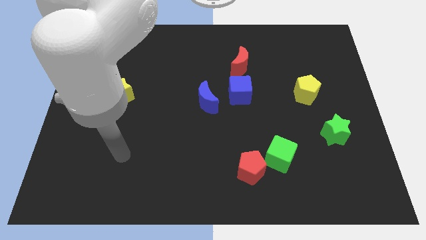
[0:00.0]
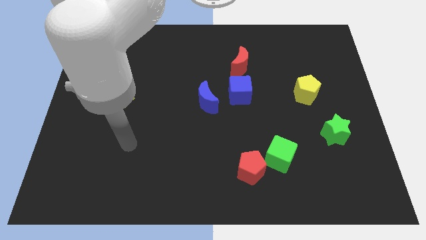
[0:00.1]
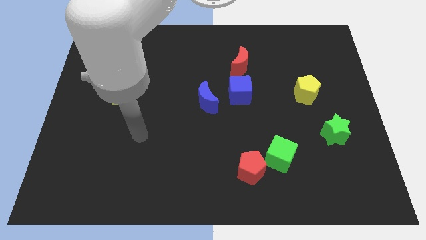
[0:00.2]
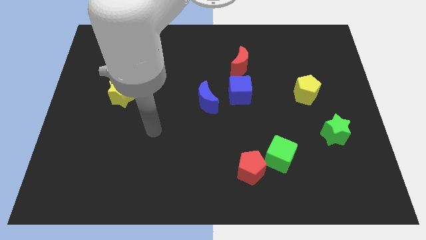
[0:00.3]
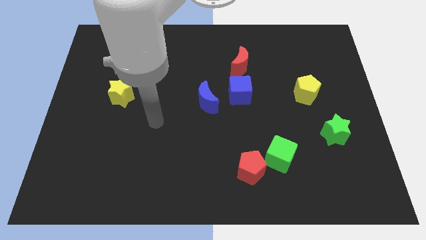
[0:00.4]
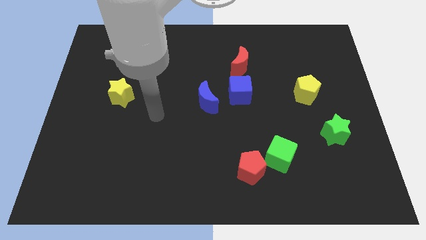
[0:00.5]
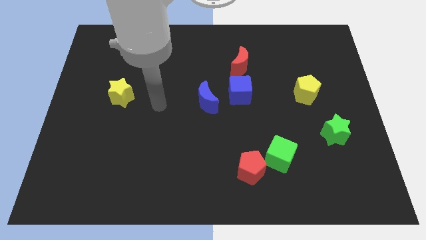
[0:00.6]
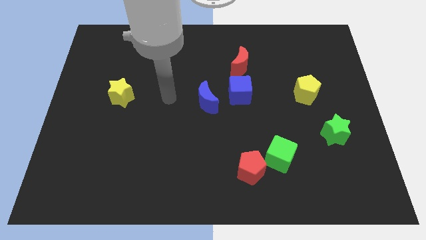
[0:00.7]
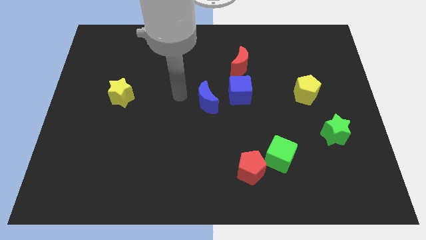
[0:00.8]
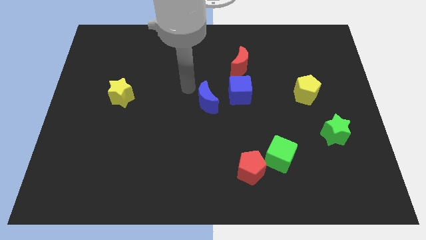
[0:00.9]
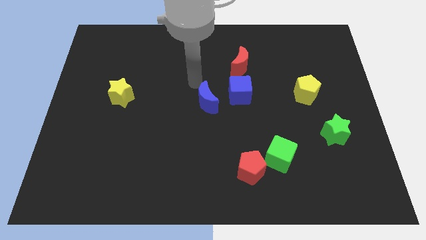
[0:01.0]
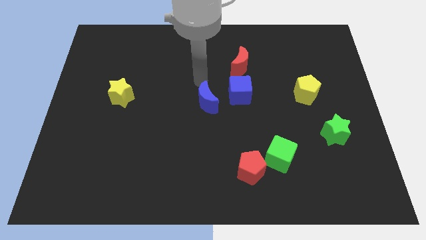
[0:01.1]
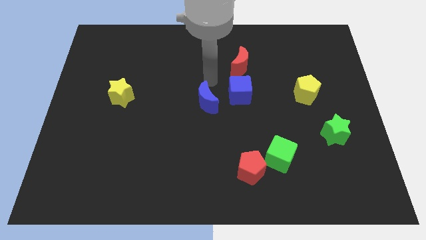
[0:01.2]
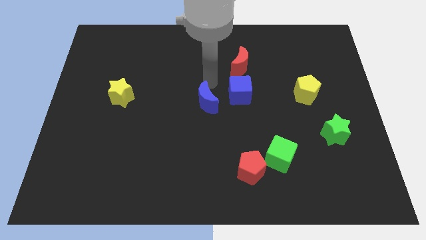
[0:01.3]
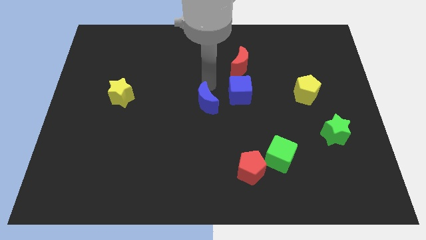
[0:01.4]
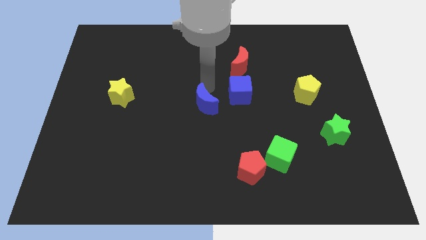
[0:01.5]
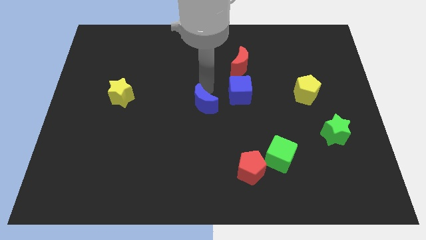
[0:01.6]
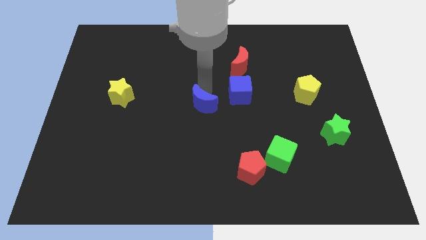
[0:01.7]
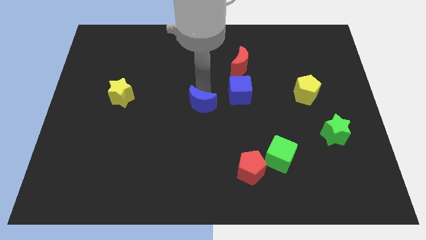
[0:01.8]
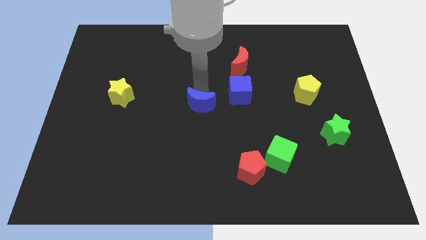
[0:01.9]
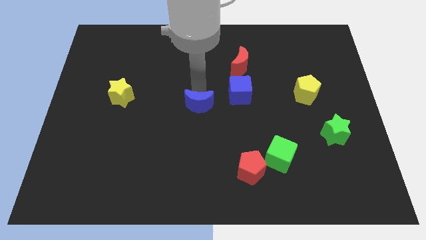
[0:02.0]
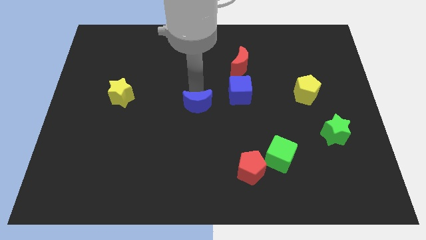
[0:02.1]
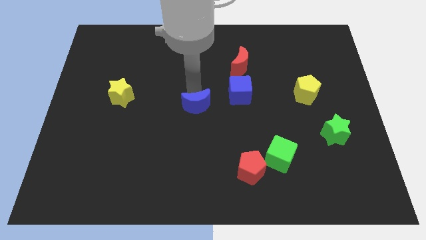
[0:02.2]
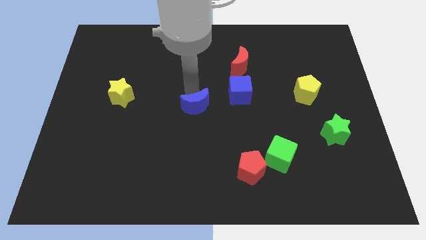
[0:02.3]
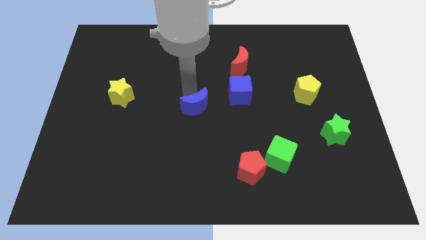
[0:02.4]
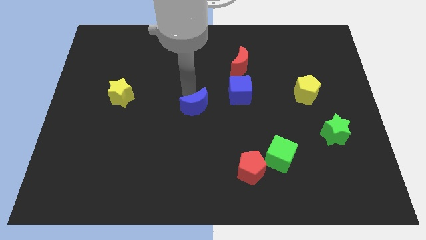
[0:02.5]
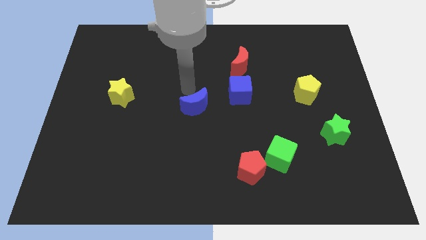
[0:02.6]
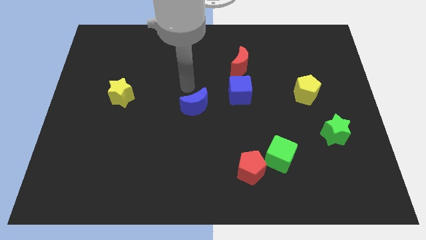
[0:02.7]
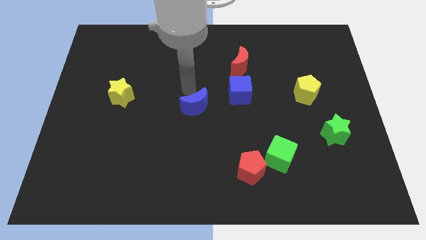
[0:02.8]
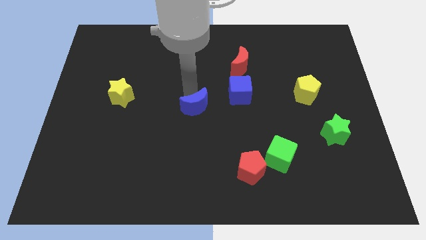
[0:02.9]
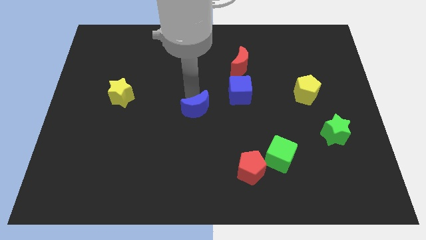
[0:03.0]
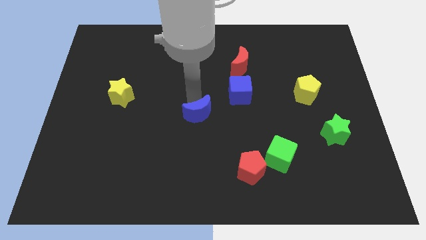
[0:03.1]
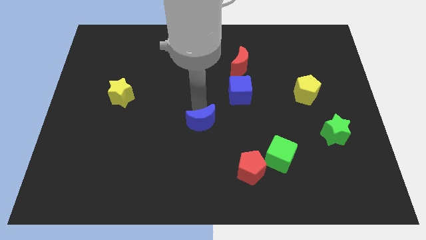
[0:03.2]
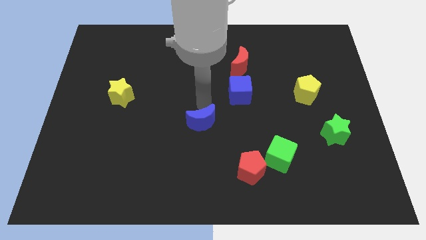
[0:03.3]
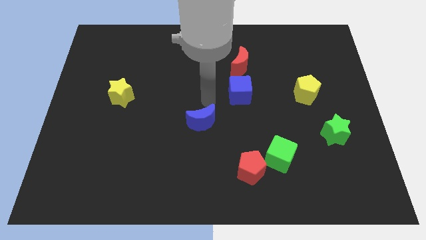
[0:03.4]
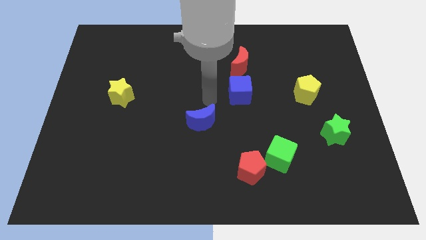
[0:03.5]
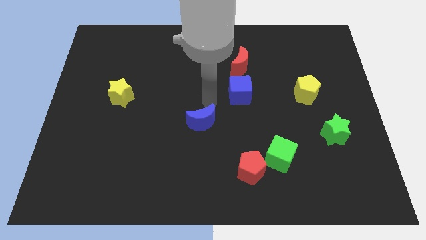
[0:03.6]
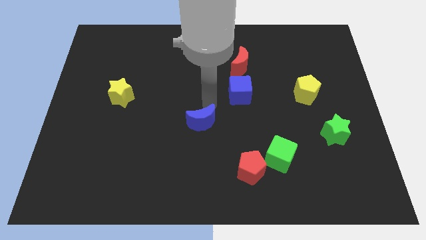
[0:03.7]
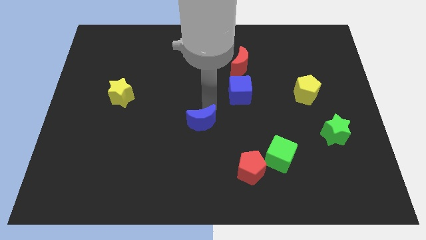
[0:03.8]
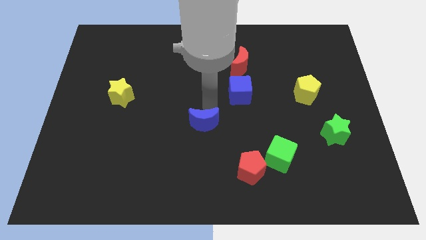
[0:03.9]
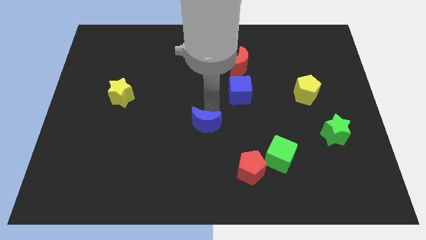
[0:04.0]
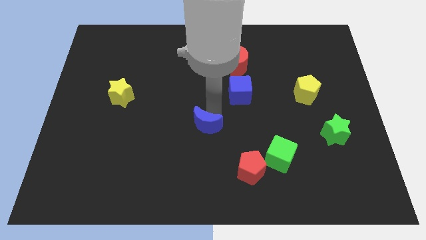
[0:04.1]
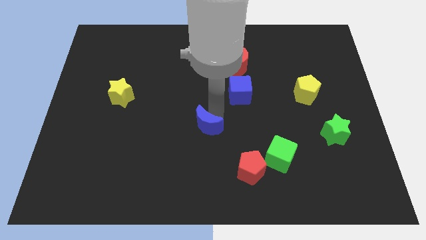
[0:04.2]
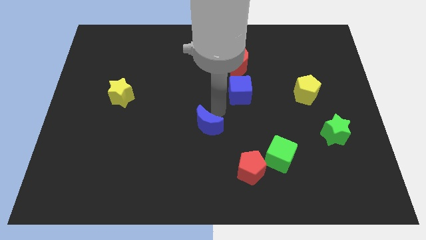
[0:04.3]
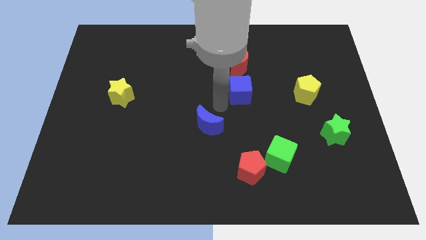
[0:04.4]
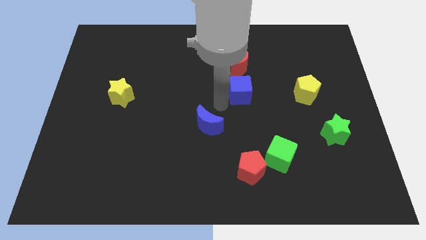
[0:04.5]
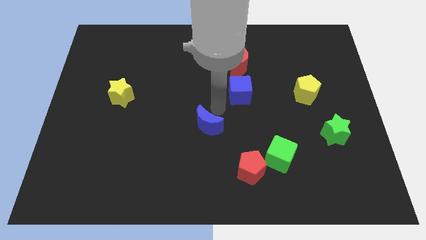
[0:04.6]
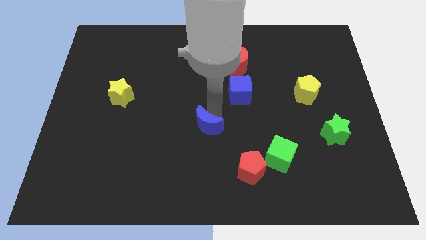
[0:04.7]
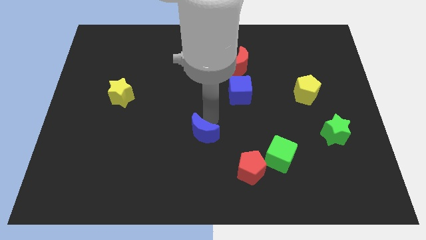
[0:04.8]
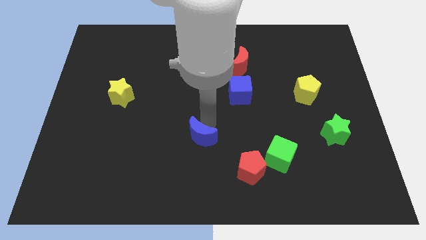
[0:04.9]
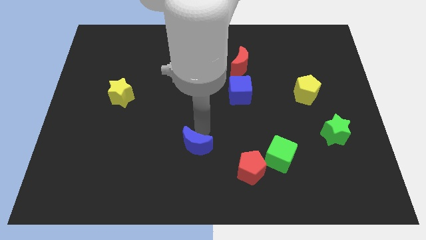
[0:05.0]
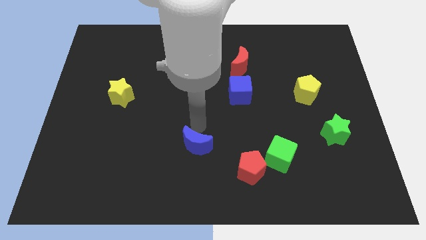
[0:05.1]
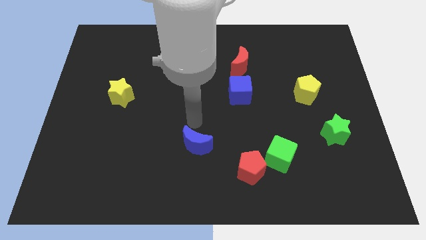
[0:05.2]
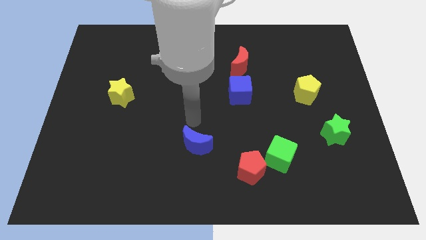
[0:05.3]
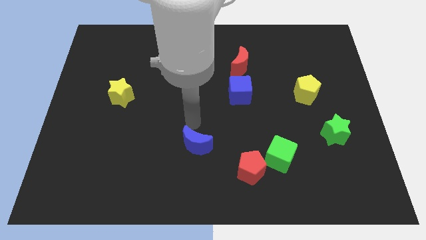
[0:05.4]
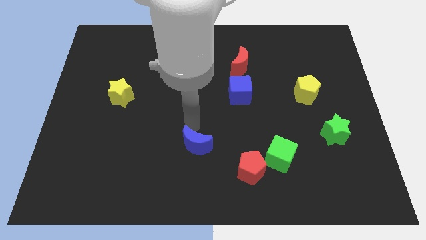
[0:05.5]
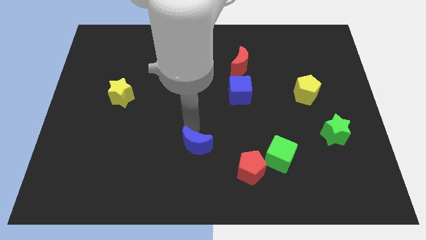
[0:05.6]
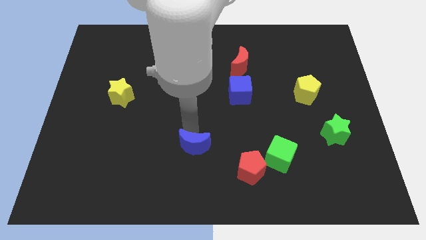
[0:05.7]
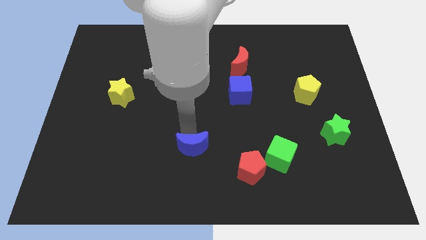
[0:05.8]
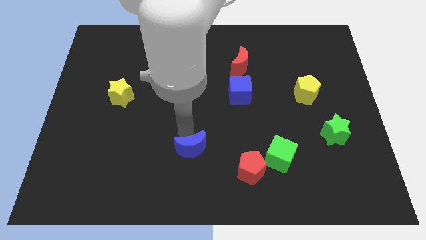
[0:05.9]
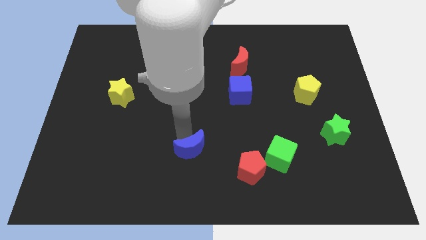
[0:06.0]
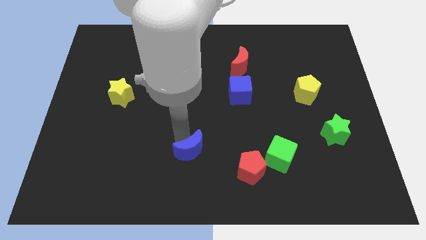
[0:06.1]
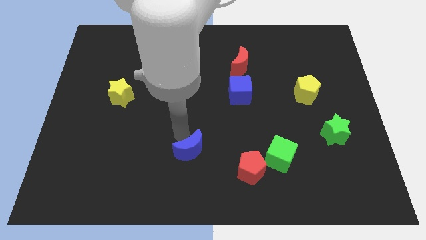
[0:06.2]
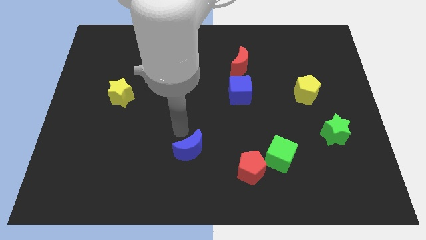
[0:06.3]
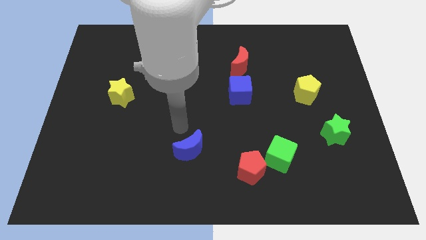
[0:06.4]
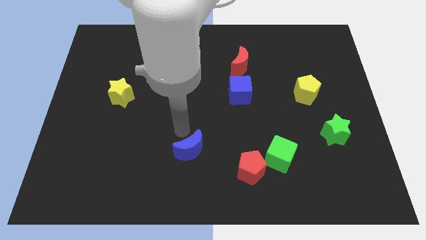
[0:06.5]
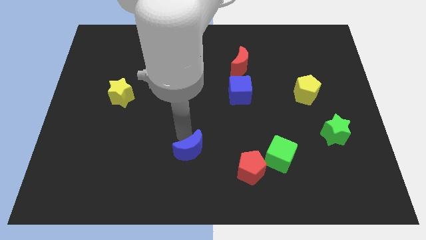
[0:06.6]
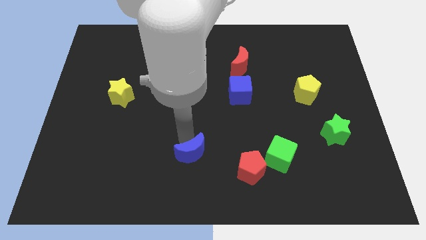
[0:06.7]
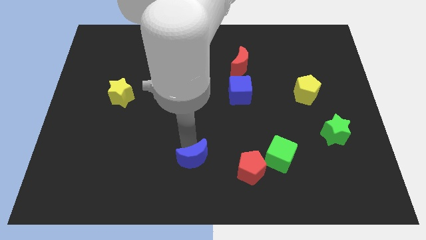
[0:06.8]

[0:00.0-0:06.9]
put the blue moon to the bottom side

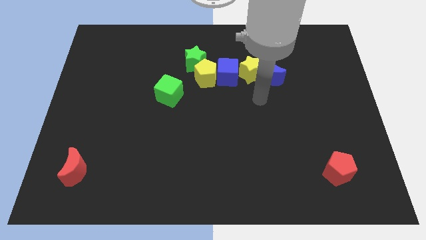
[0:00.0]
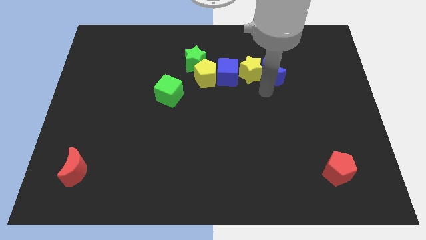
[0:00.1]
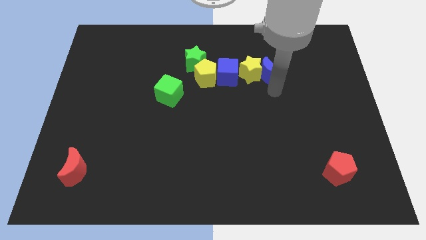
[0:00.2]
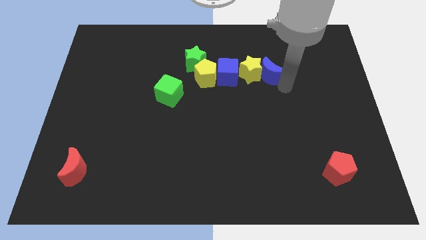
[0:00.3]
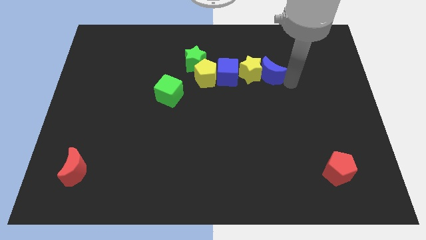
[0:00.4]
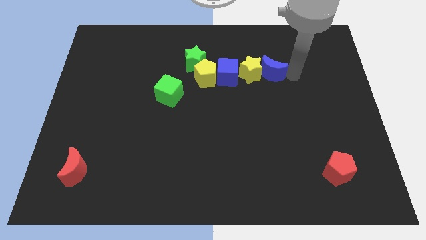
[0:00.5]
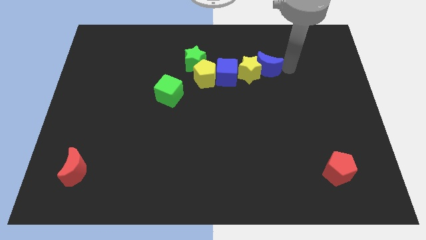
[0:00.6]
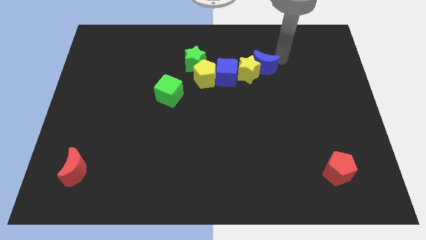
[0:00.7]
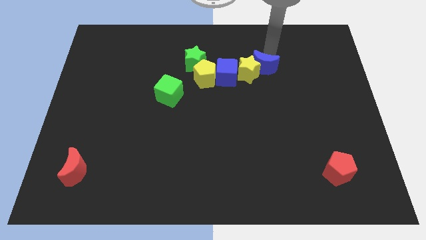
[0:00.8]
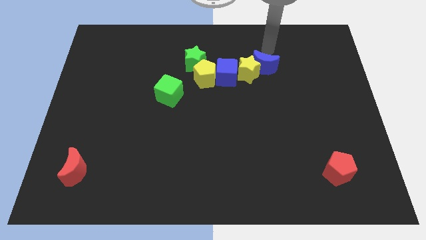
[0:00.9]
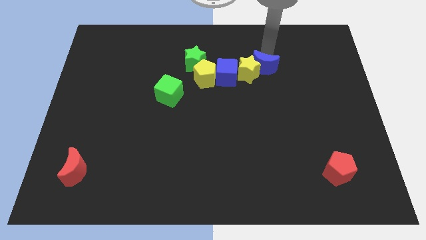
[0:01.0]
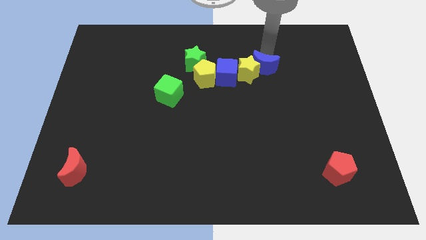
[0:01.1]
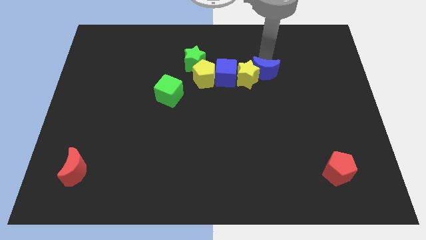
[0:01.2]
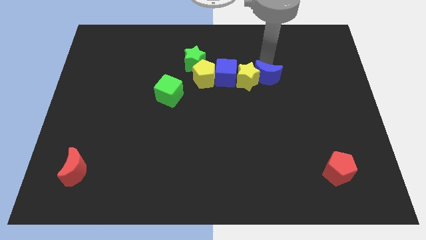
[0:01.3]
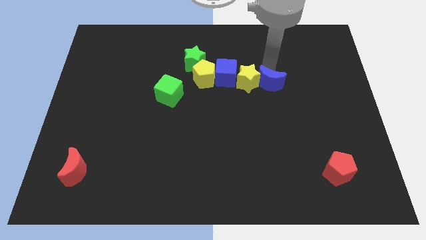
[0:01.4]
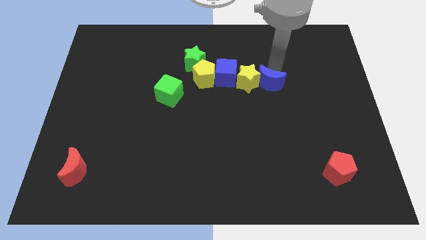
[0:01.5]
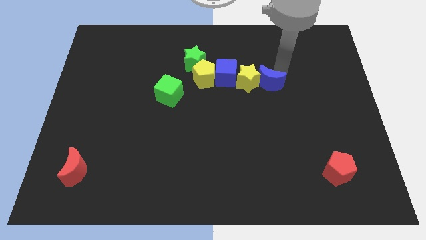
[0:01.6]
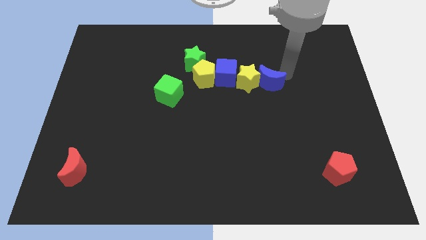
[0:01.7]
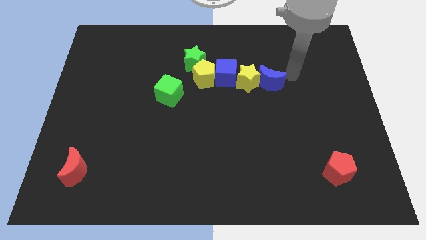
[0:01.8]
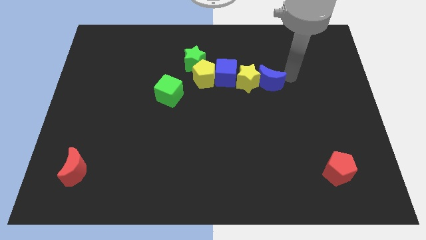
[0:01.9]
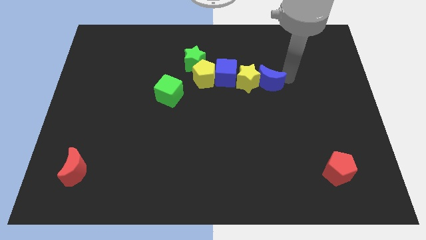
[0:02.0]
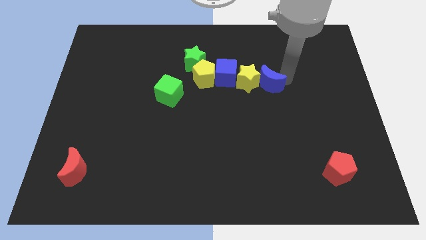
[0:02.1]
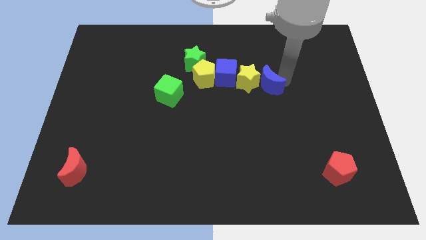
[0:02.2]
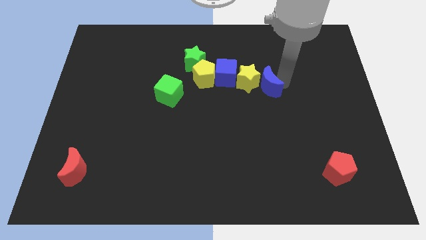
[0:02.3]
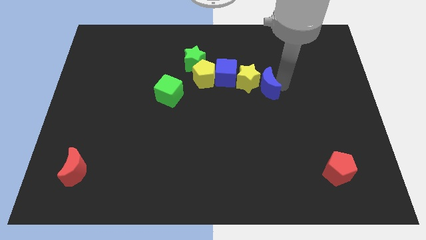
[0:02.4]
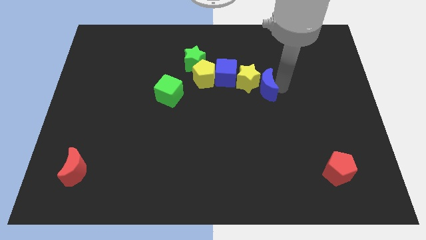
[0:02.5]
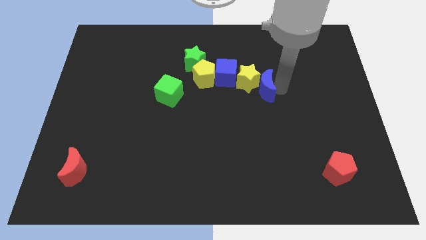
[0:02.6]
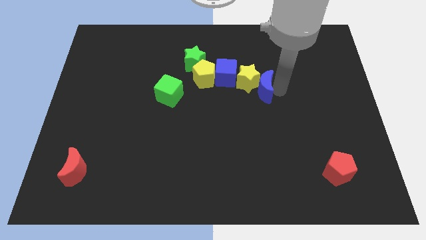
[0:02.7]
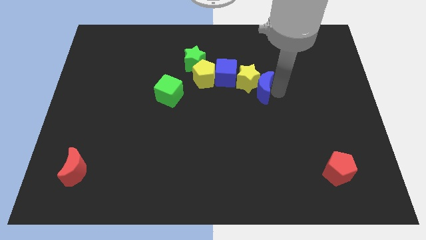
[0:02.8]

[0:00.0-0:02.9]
push the blue moon to the middle of the board
